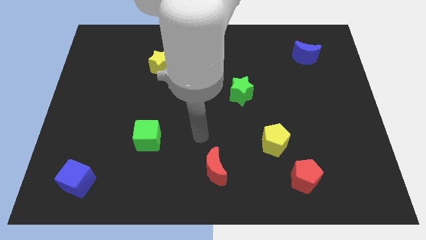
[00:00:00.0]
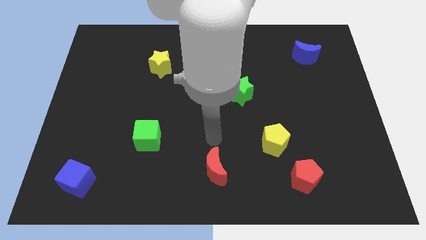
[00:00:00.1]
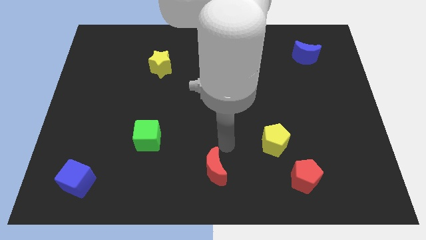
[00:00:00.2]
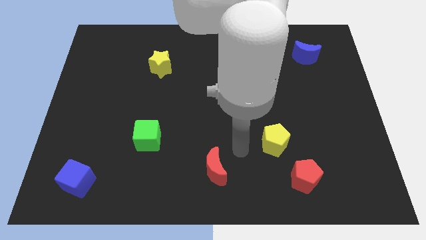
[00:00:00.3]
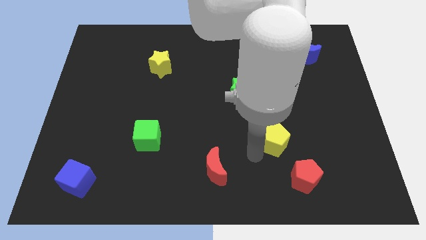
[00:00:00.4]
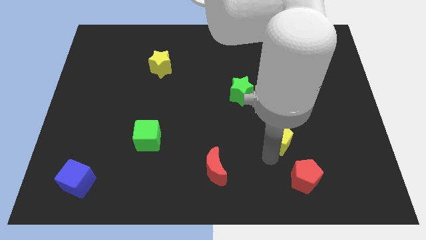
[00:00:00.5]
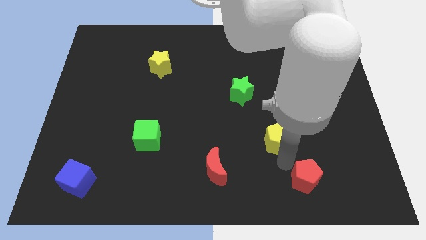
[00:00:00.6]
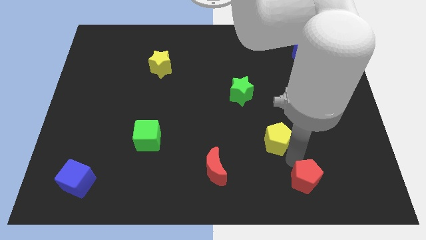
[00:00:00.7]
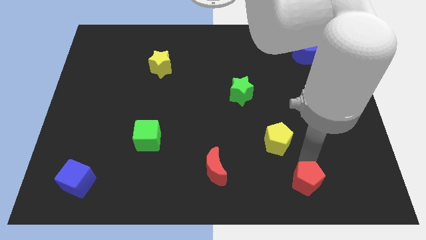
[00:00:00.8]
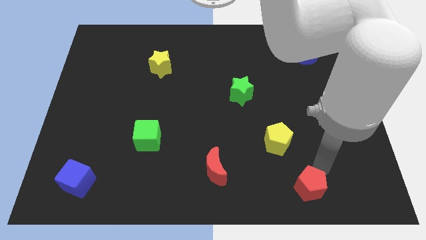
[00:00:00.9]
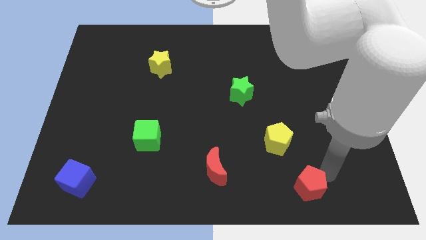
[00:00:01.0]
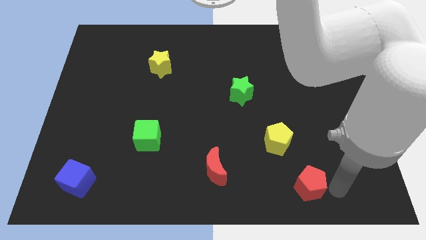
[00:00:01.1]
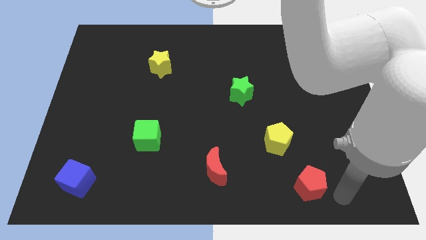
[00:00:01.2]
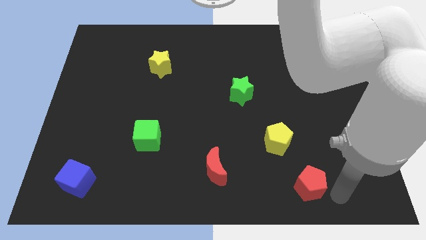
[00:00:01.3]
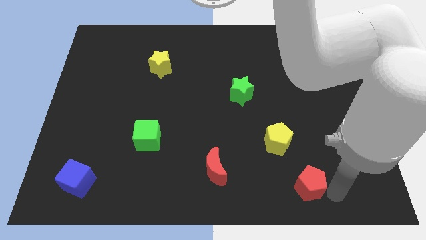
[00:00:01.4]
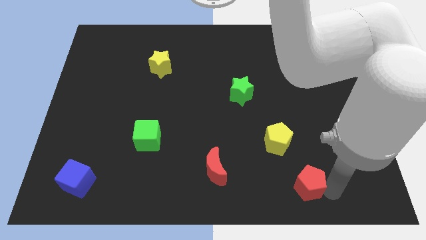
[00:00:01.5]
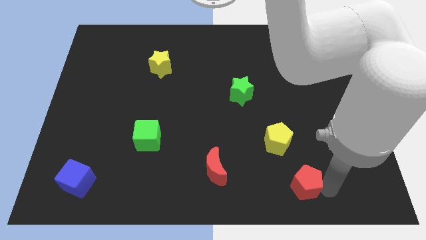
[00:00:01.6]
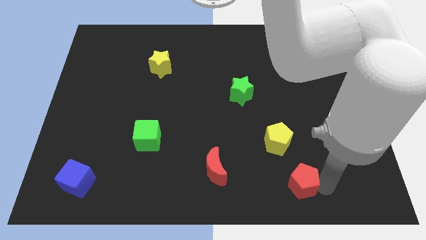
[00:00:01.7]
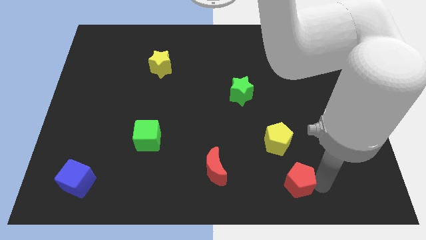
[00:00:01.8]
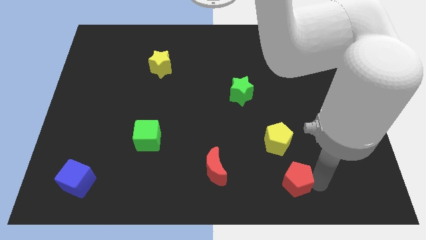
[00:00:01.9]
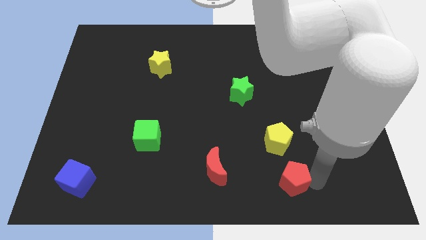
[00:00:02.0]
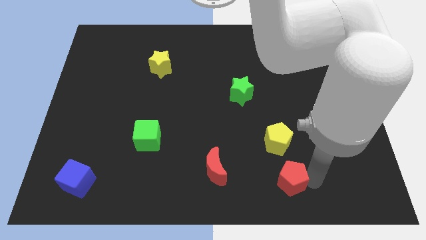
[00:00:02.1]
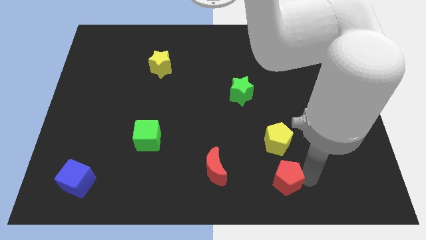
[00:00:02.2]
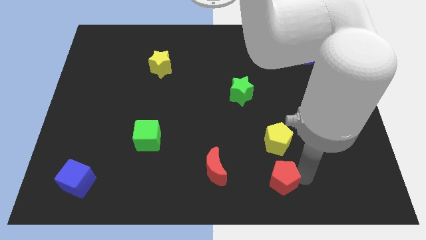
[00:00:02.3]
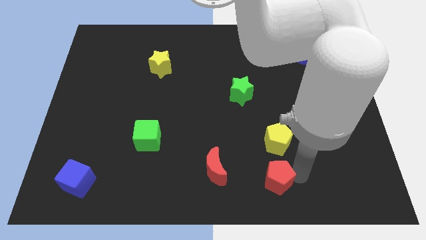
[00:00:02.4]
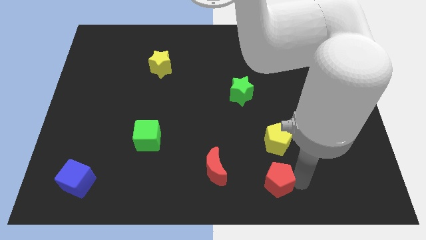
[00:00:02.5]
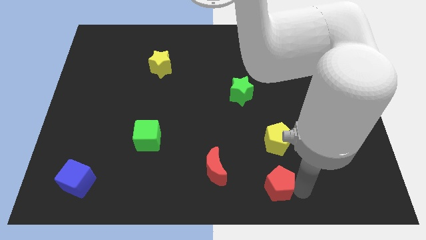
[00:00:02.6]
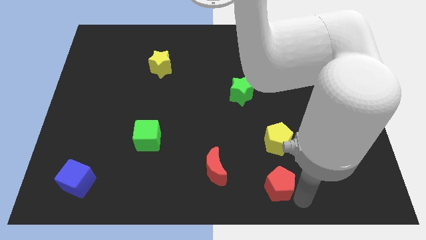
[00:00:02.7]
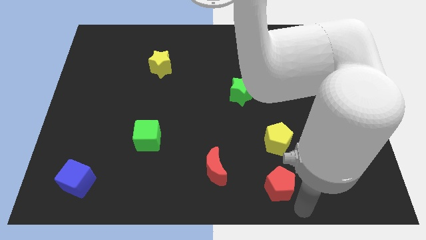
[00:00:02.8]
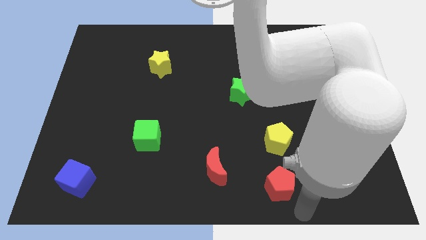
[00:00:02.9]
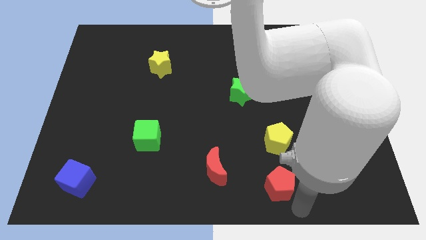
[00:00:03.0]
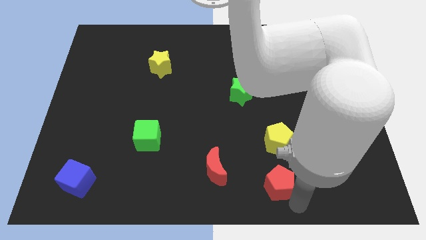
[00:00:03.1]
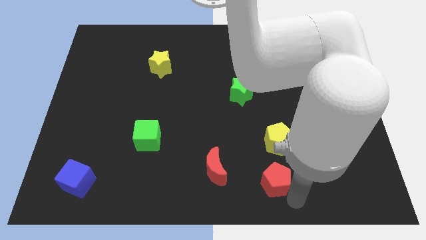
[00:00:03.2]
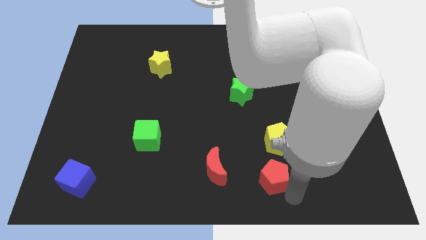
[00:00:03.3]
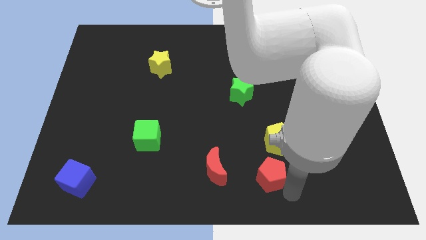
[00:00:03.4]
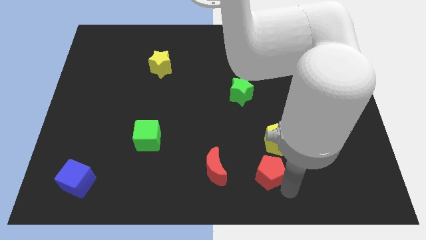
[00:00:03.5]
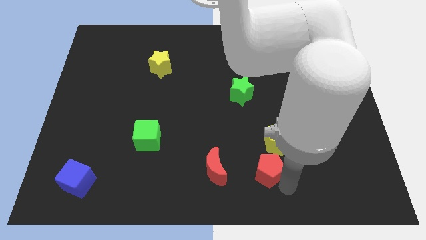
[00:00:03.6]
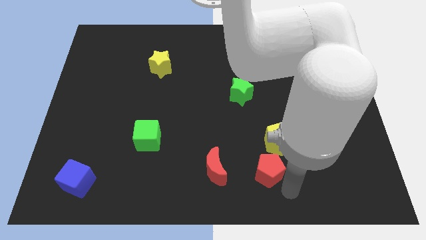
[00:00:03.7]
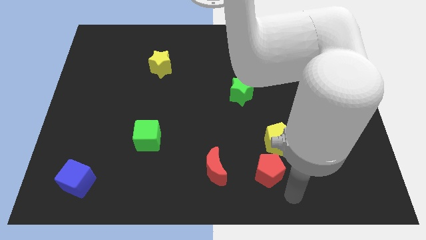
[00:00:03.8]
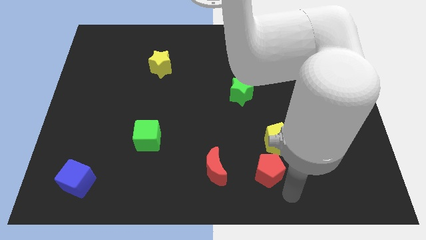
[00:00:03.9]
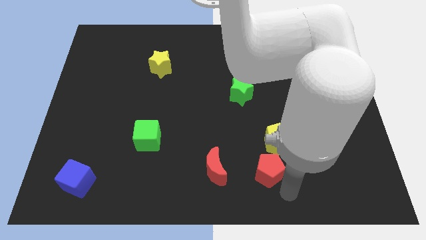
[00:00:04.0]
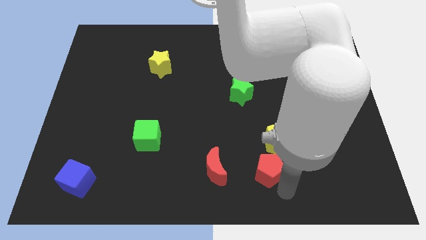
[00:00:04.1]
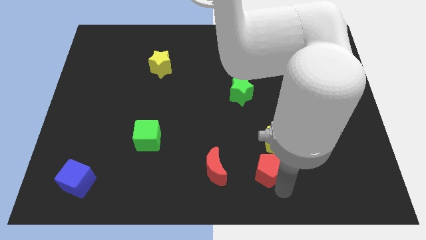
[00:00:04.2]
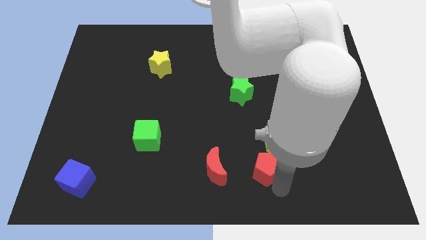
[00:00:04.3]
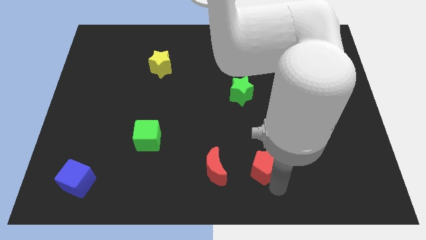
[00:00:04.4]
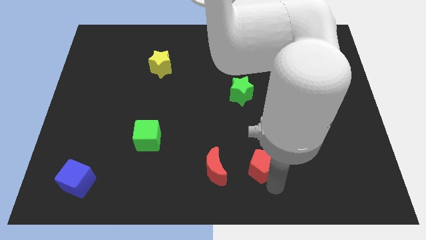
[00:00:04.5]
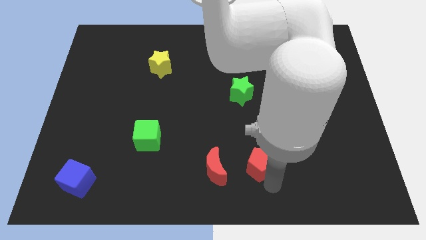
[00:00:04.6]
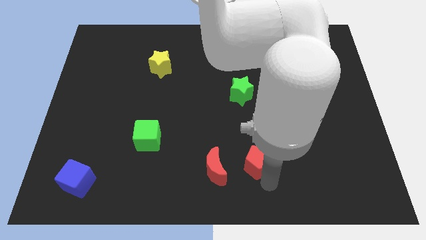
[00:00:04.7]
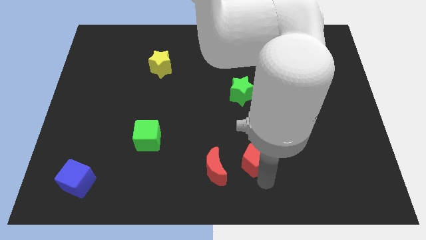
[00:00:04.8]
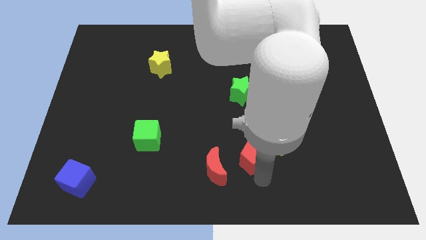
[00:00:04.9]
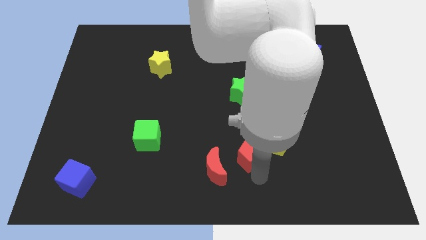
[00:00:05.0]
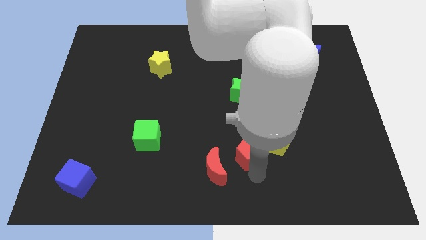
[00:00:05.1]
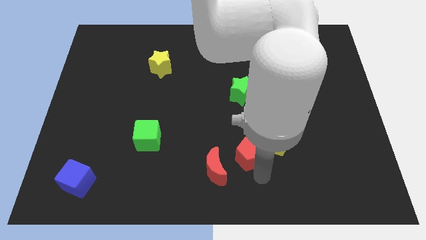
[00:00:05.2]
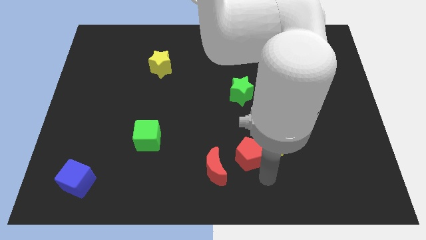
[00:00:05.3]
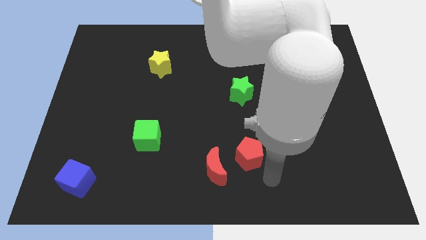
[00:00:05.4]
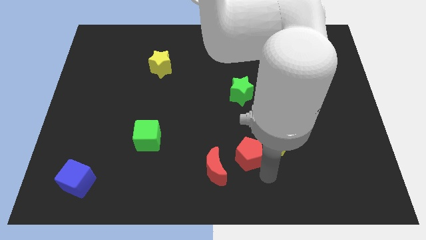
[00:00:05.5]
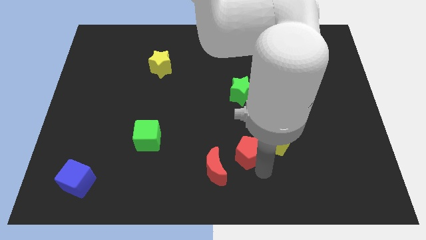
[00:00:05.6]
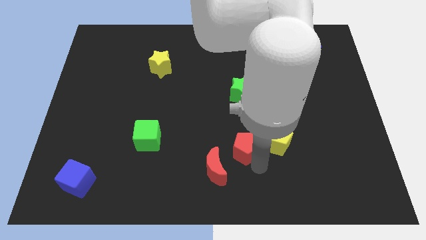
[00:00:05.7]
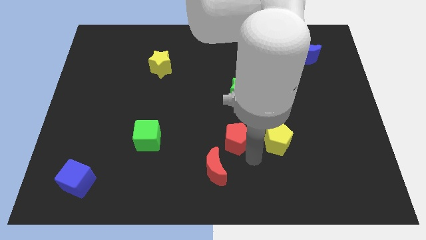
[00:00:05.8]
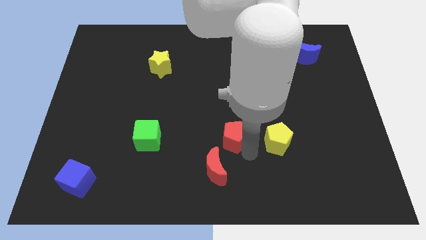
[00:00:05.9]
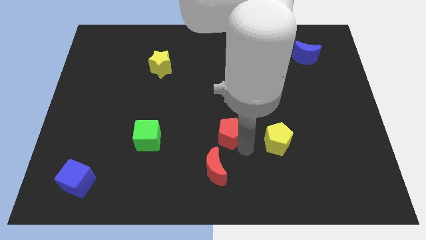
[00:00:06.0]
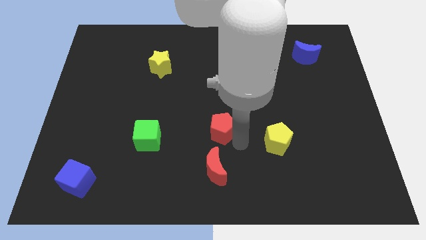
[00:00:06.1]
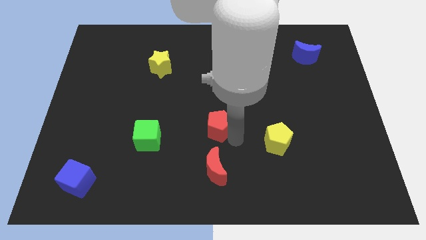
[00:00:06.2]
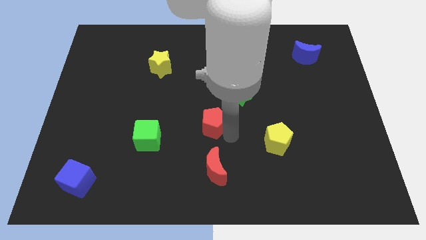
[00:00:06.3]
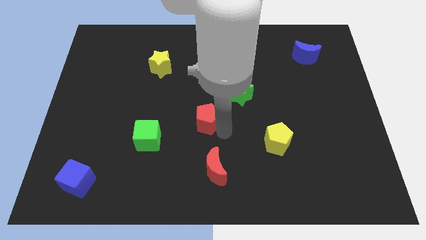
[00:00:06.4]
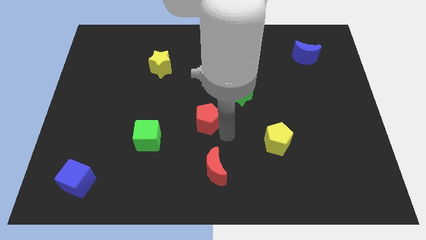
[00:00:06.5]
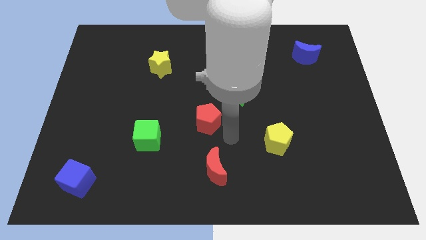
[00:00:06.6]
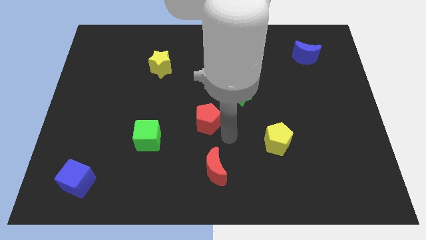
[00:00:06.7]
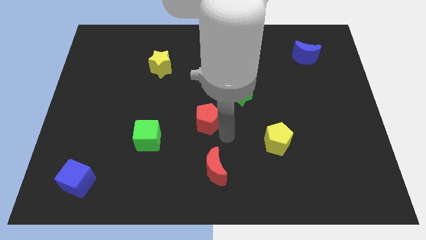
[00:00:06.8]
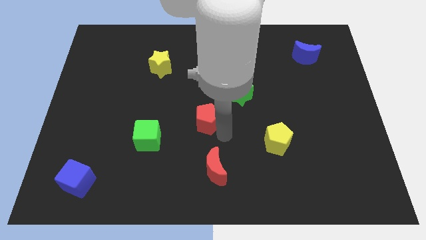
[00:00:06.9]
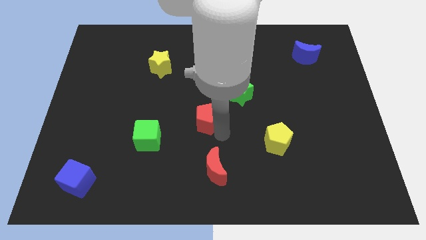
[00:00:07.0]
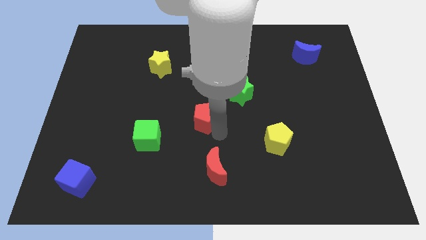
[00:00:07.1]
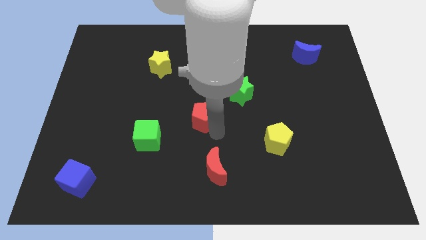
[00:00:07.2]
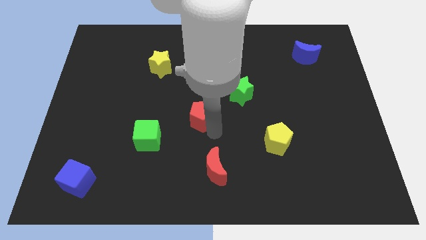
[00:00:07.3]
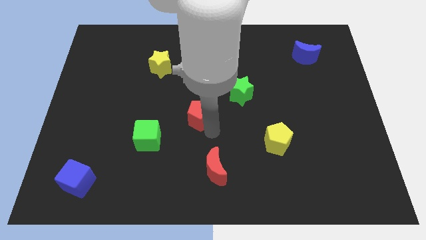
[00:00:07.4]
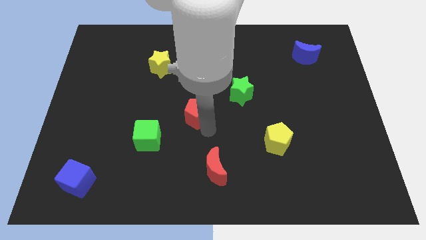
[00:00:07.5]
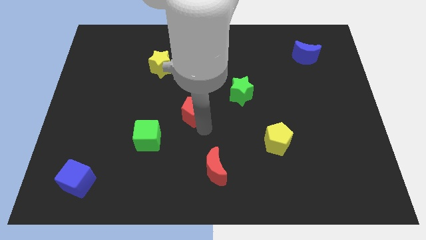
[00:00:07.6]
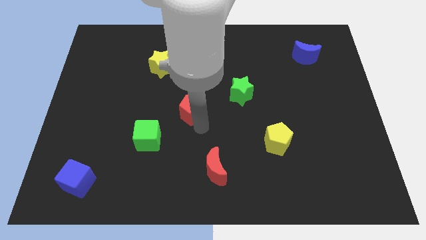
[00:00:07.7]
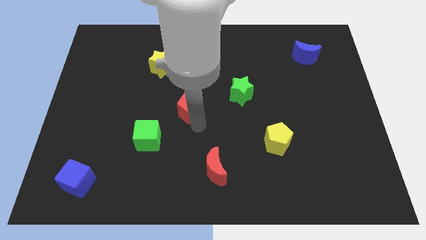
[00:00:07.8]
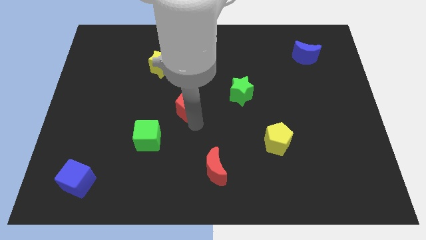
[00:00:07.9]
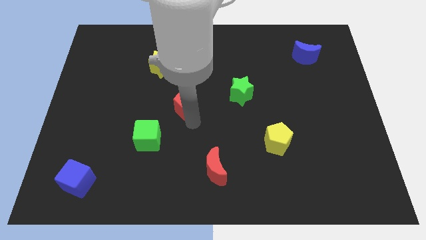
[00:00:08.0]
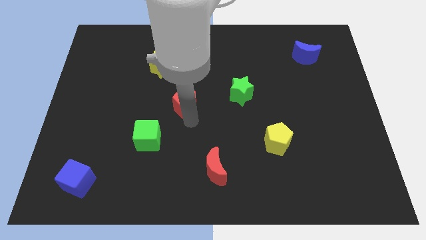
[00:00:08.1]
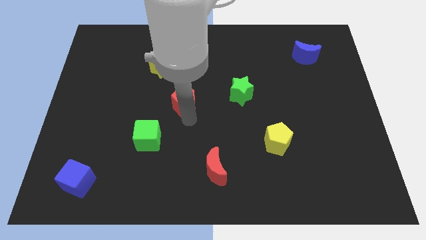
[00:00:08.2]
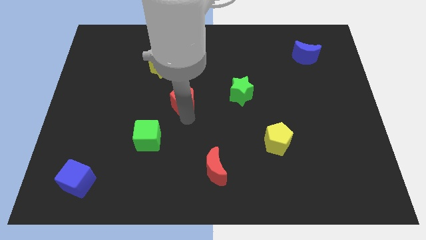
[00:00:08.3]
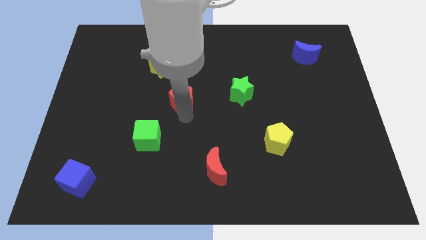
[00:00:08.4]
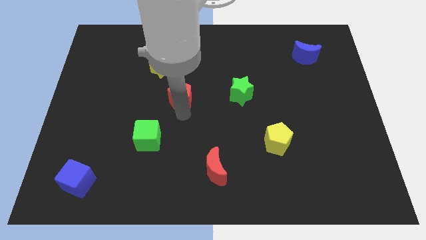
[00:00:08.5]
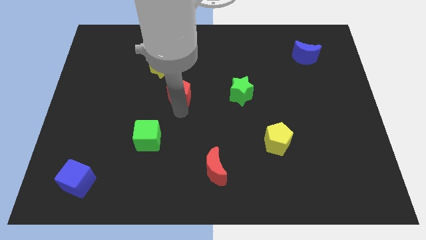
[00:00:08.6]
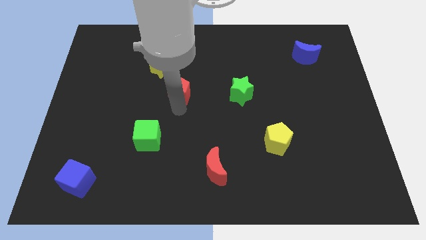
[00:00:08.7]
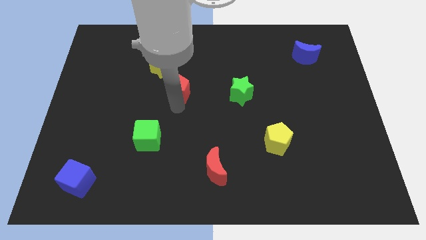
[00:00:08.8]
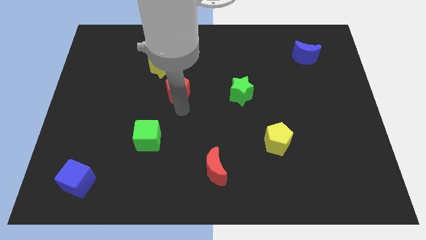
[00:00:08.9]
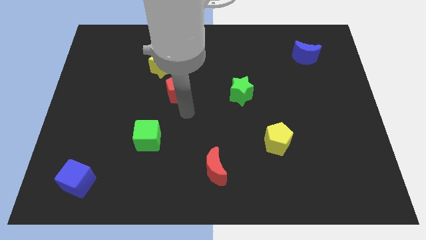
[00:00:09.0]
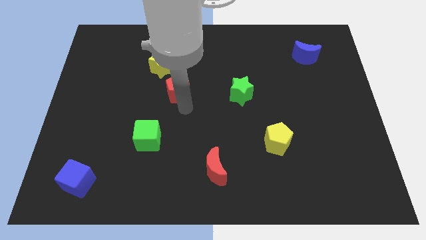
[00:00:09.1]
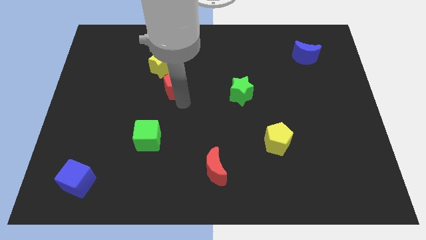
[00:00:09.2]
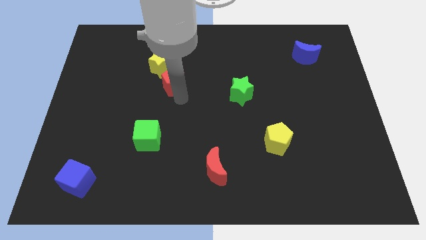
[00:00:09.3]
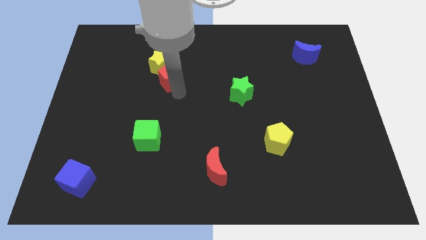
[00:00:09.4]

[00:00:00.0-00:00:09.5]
move the red pentagon next to the yellow star
